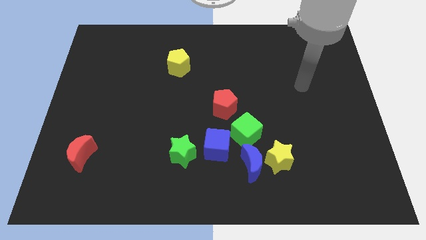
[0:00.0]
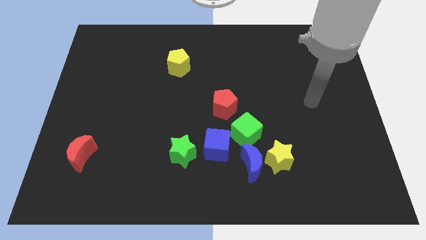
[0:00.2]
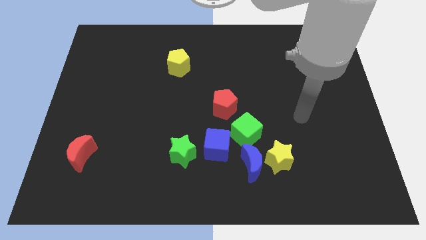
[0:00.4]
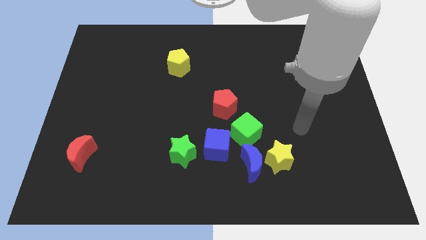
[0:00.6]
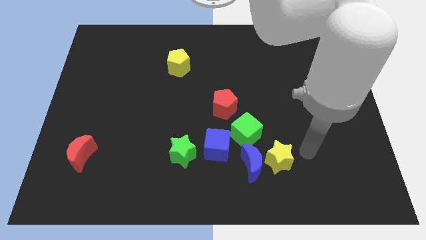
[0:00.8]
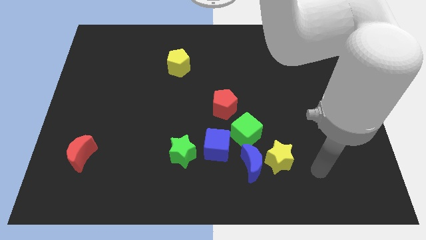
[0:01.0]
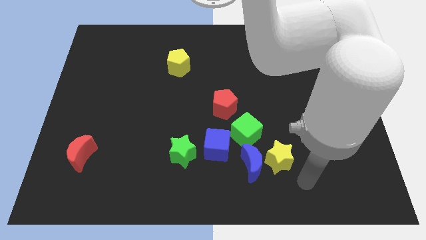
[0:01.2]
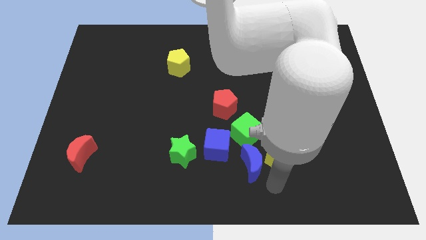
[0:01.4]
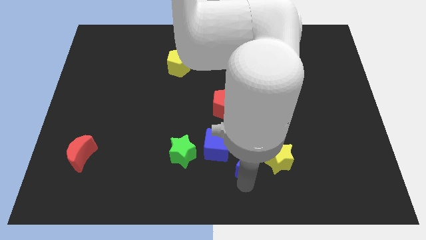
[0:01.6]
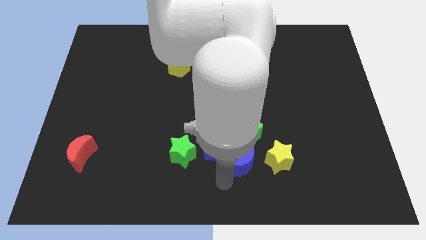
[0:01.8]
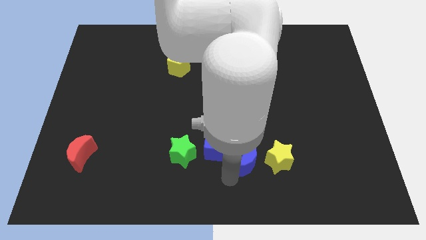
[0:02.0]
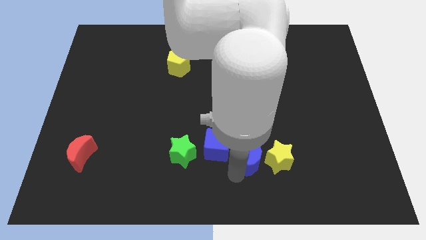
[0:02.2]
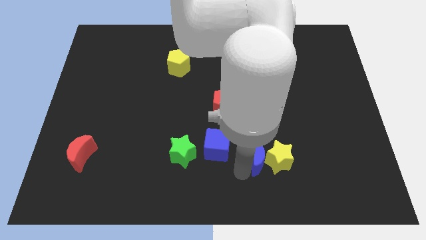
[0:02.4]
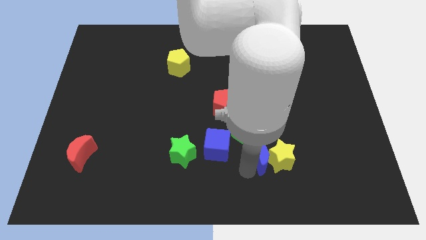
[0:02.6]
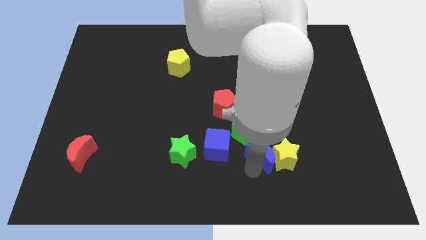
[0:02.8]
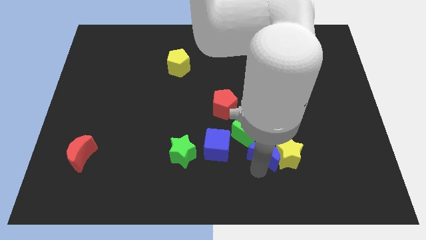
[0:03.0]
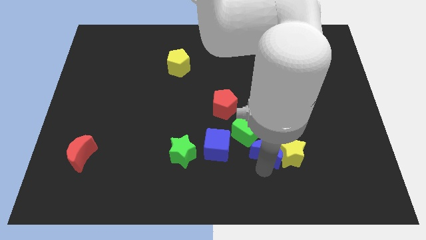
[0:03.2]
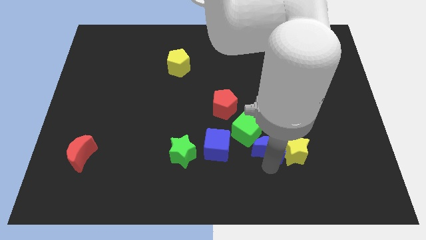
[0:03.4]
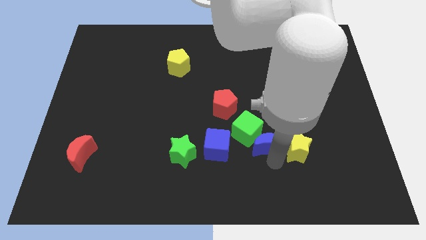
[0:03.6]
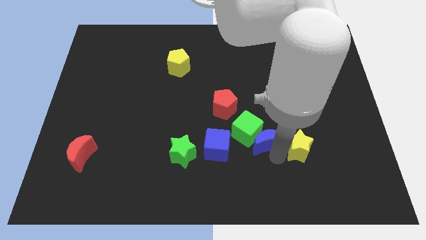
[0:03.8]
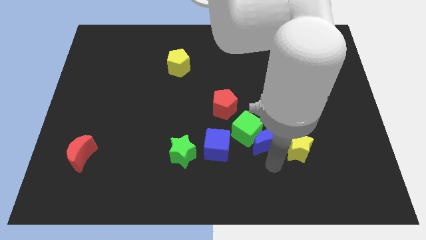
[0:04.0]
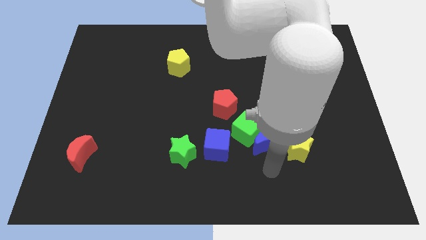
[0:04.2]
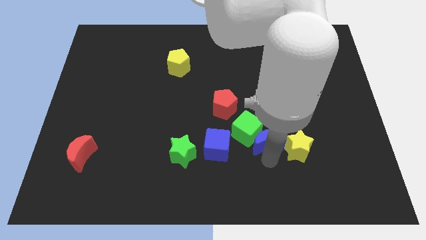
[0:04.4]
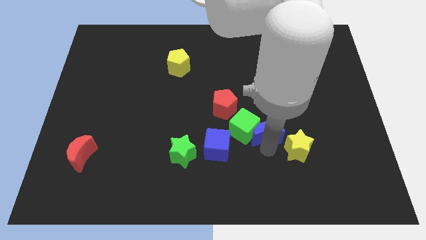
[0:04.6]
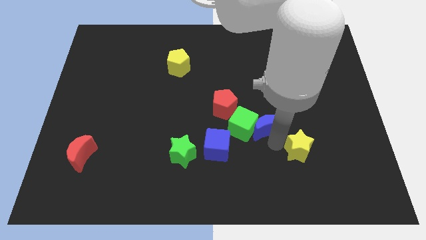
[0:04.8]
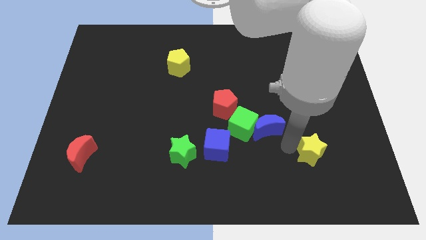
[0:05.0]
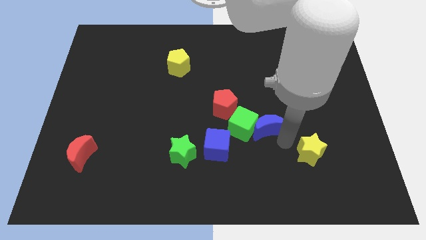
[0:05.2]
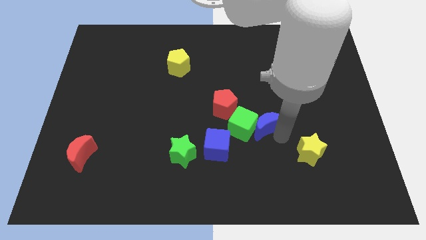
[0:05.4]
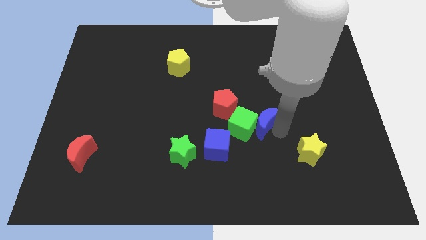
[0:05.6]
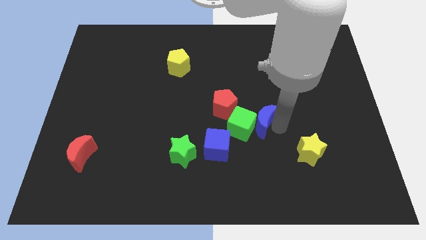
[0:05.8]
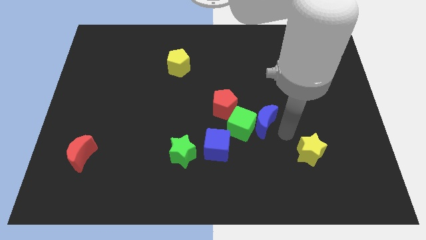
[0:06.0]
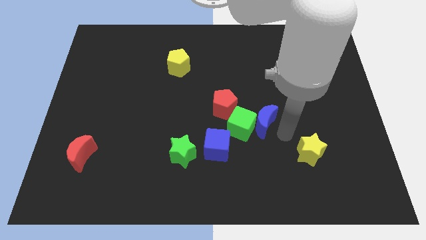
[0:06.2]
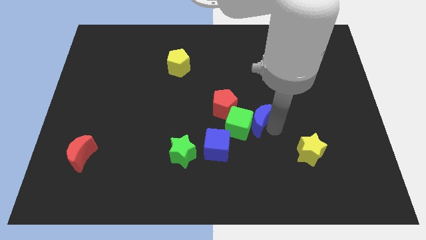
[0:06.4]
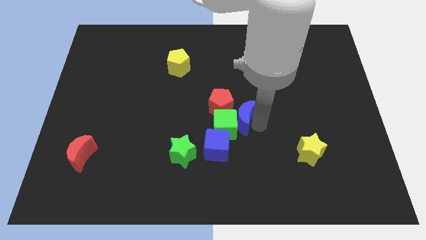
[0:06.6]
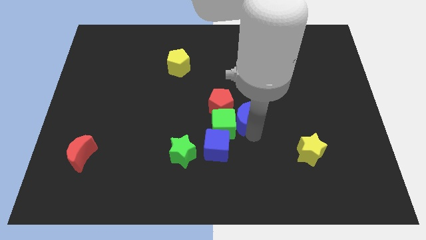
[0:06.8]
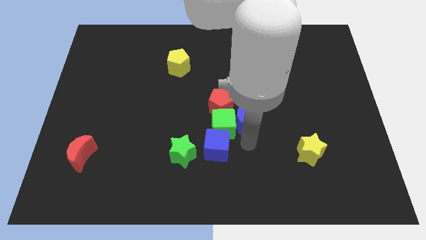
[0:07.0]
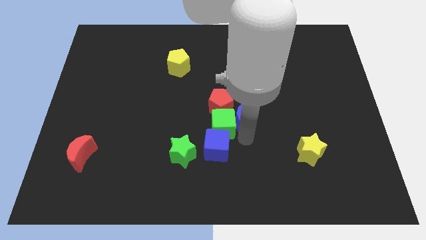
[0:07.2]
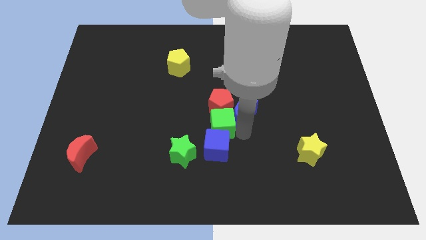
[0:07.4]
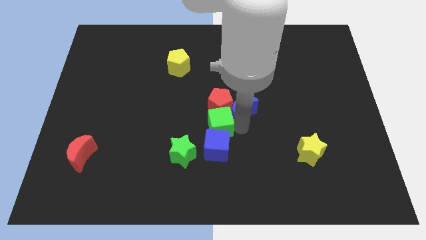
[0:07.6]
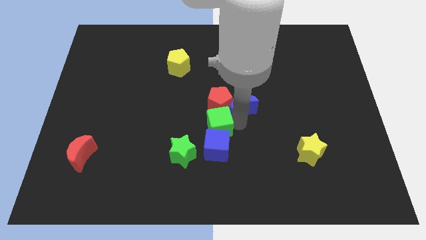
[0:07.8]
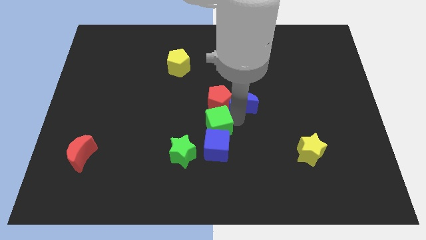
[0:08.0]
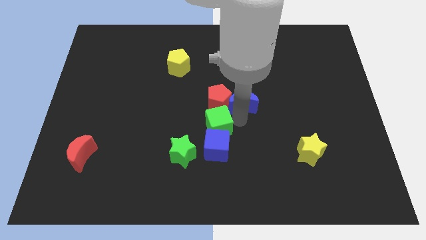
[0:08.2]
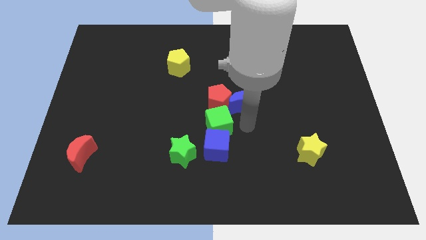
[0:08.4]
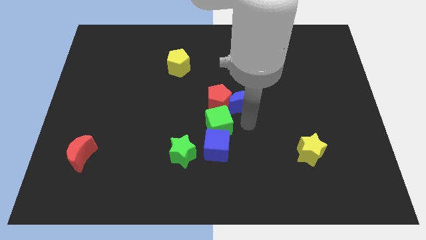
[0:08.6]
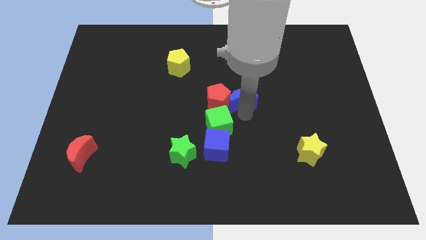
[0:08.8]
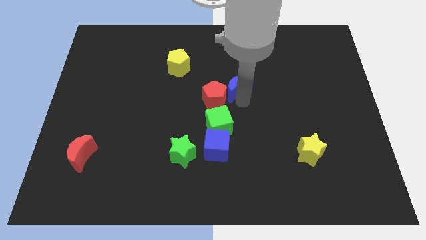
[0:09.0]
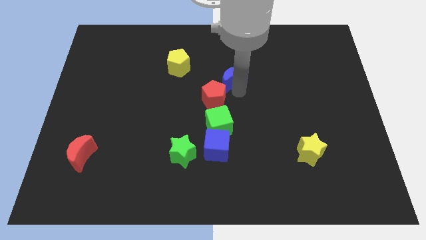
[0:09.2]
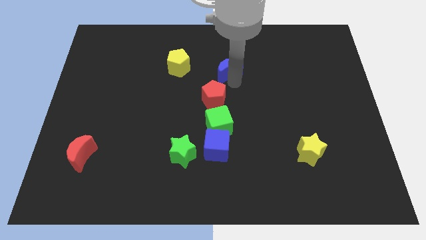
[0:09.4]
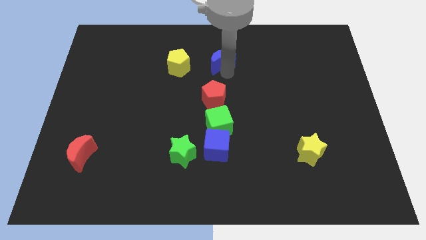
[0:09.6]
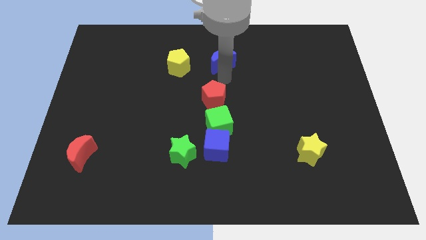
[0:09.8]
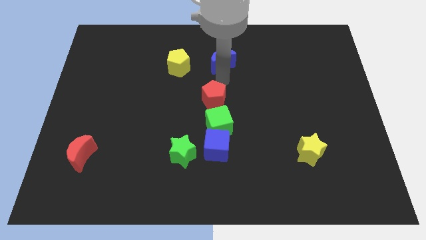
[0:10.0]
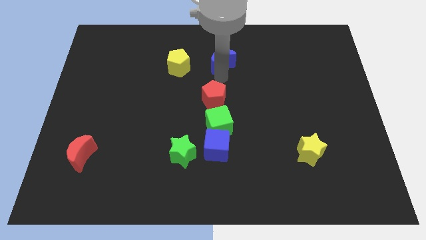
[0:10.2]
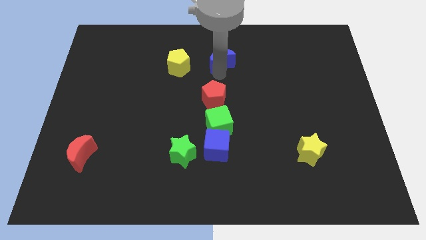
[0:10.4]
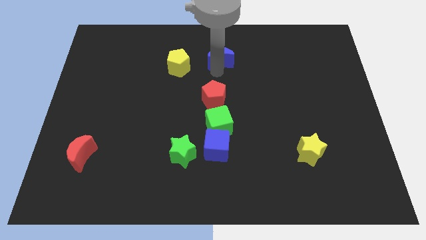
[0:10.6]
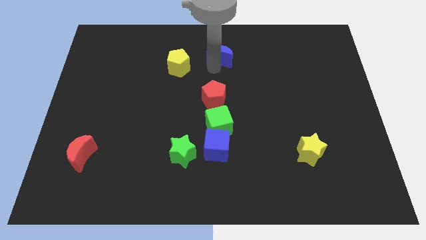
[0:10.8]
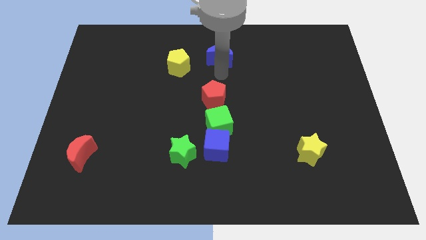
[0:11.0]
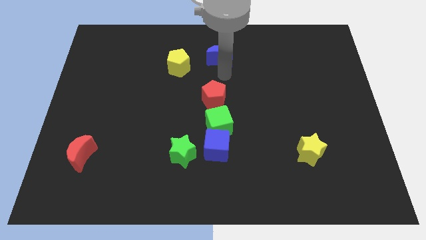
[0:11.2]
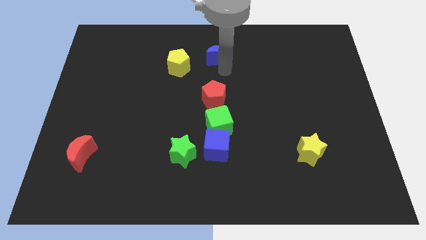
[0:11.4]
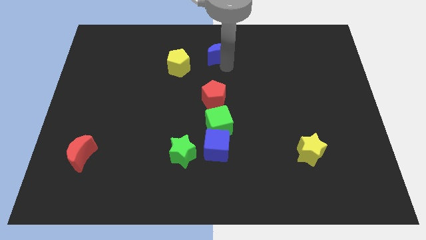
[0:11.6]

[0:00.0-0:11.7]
put the blue moon to the top

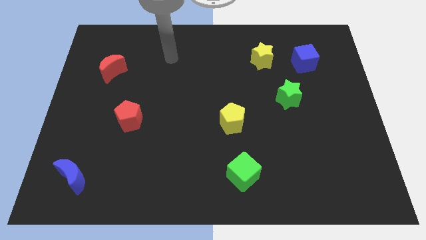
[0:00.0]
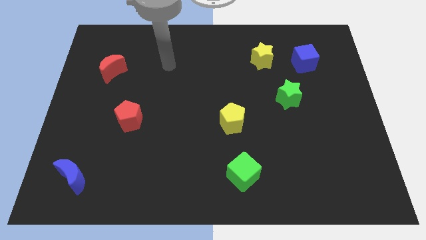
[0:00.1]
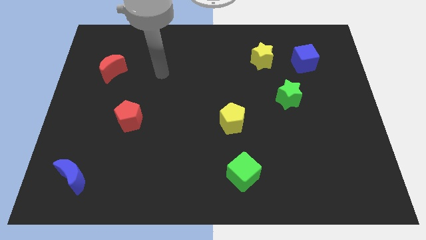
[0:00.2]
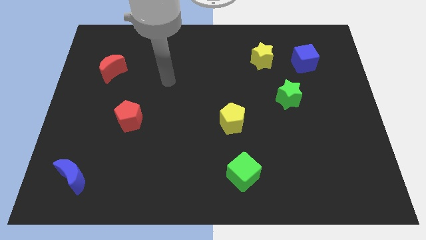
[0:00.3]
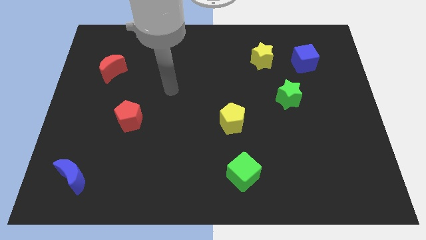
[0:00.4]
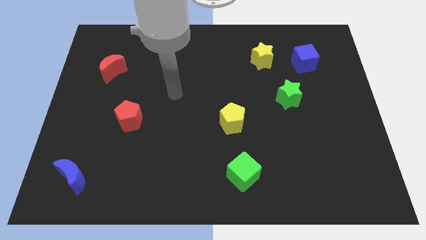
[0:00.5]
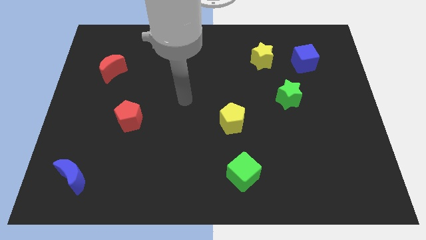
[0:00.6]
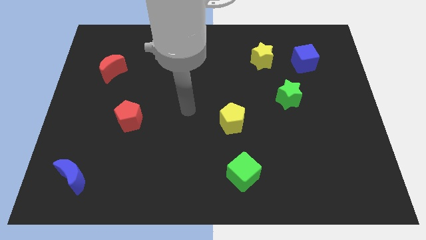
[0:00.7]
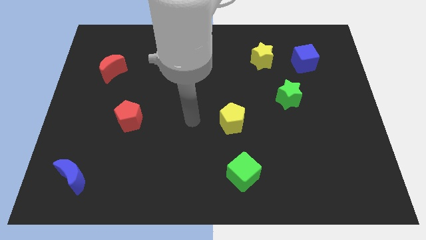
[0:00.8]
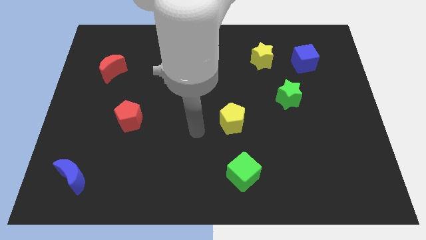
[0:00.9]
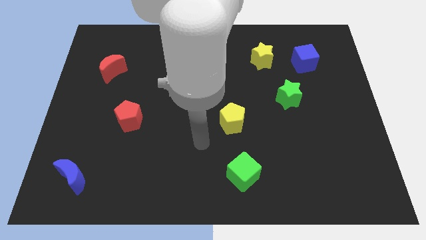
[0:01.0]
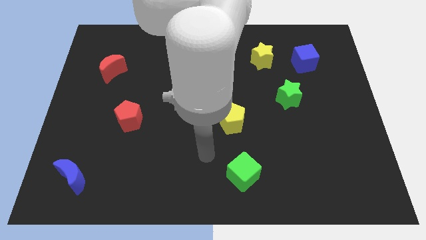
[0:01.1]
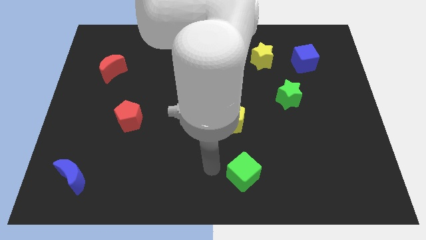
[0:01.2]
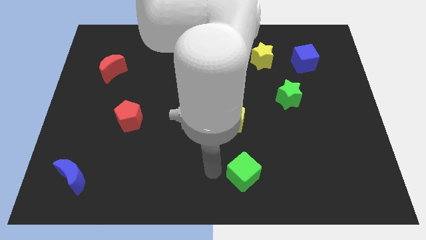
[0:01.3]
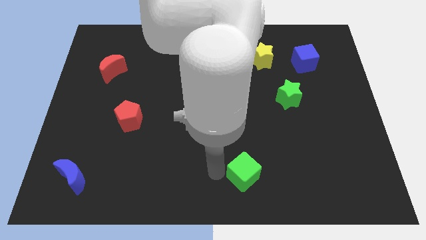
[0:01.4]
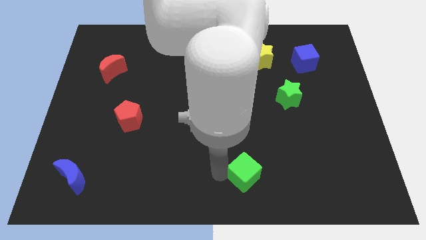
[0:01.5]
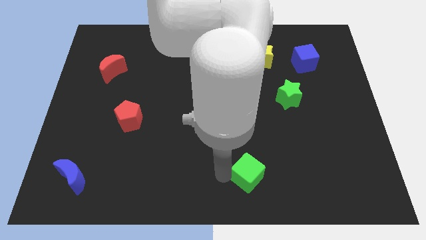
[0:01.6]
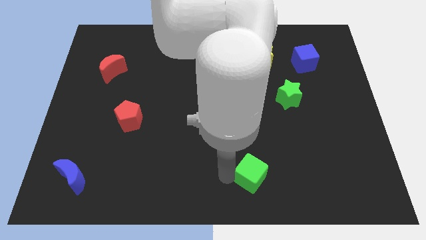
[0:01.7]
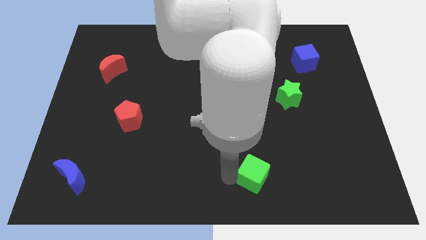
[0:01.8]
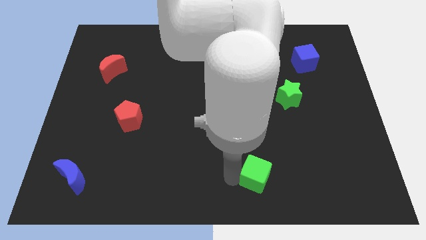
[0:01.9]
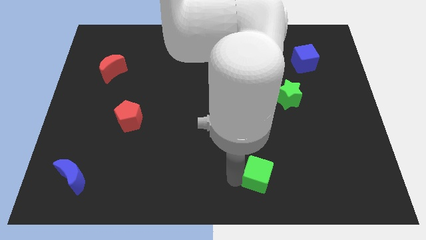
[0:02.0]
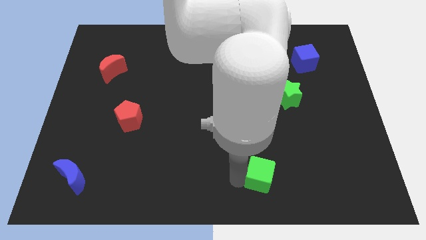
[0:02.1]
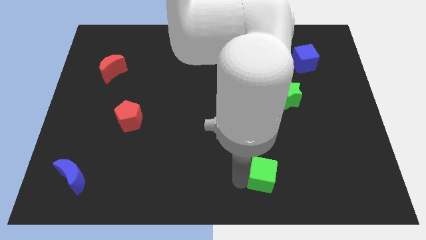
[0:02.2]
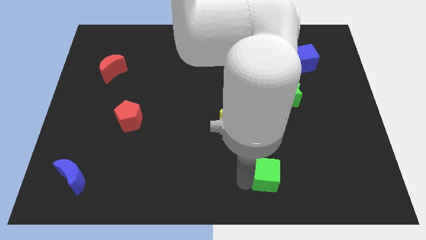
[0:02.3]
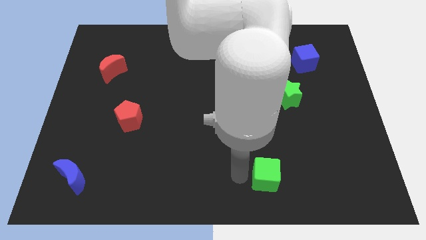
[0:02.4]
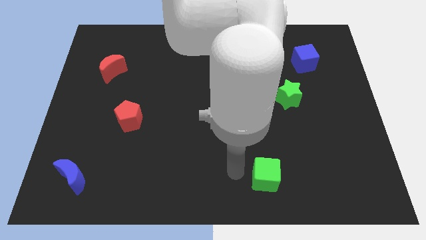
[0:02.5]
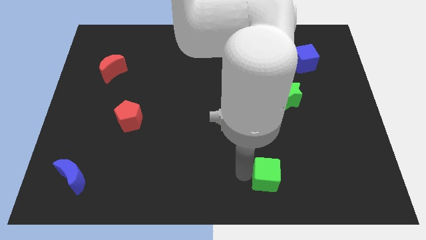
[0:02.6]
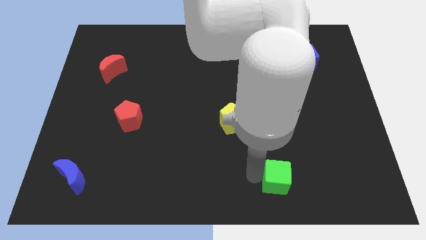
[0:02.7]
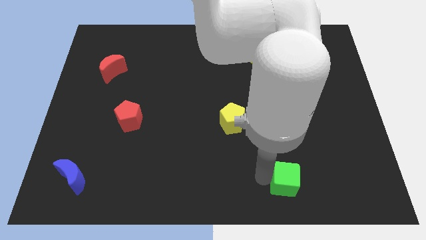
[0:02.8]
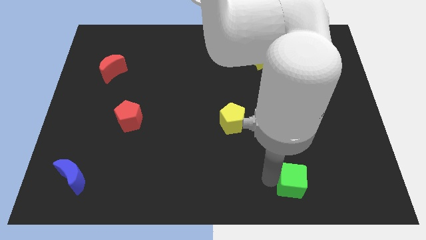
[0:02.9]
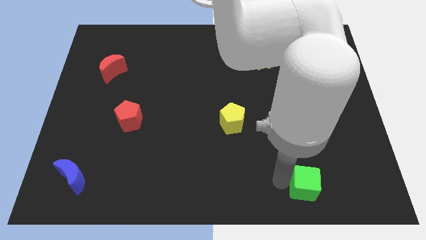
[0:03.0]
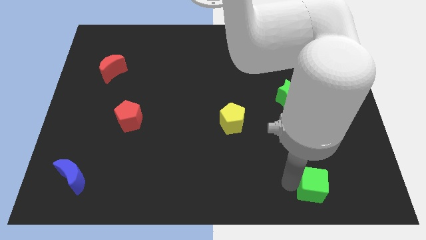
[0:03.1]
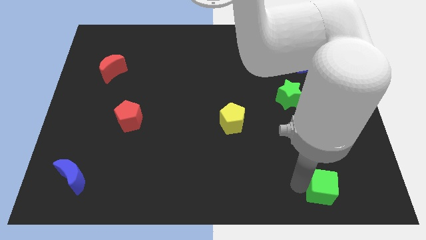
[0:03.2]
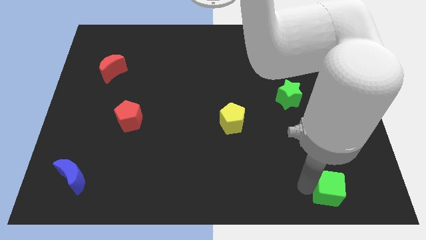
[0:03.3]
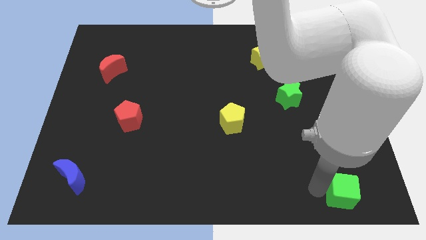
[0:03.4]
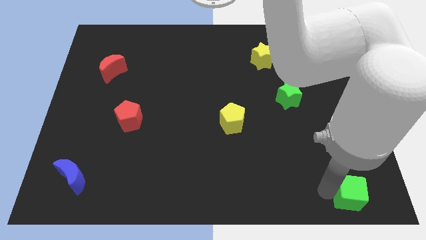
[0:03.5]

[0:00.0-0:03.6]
move the green cube to the bottom right
